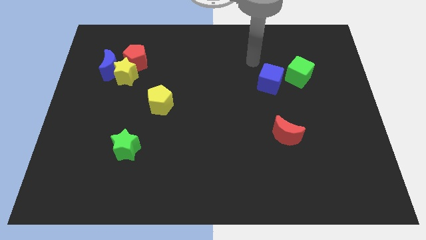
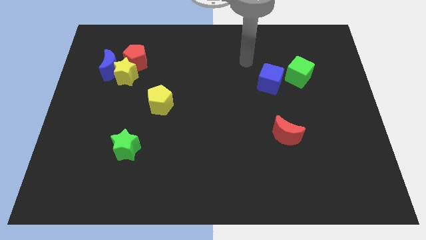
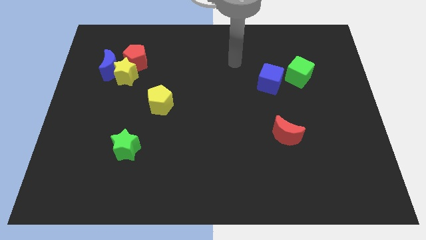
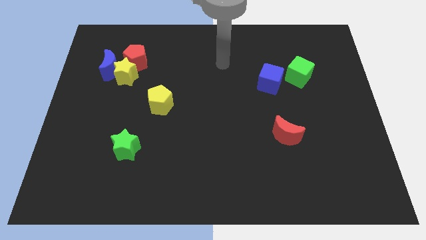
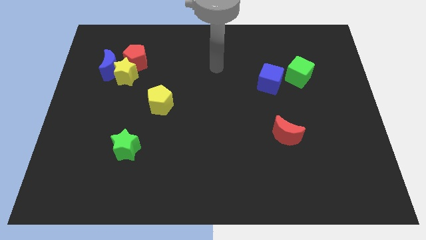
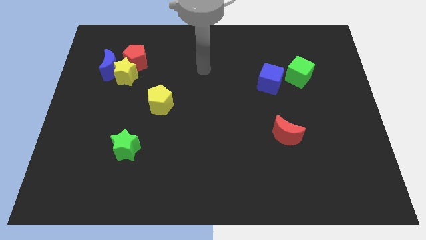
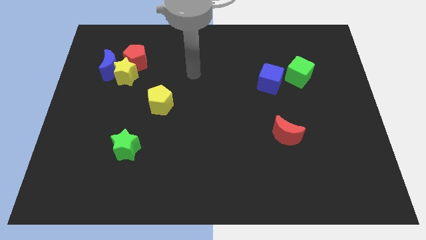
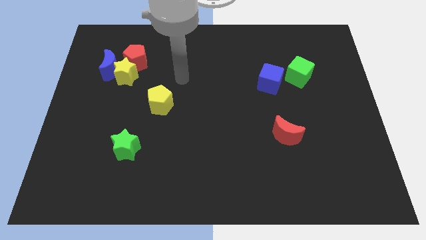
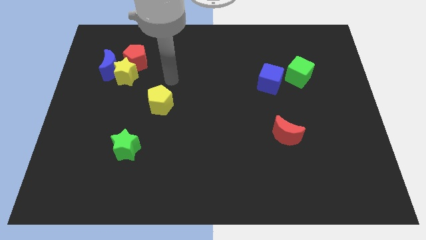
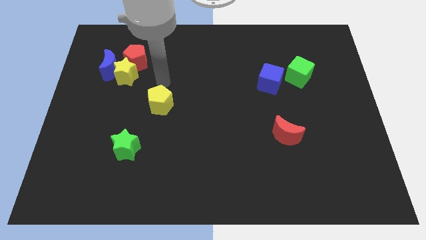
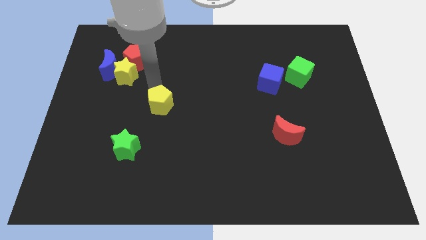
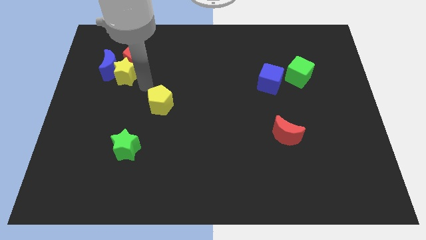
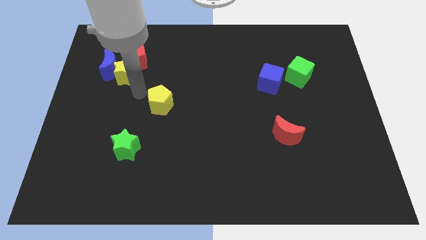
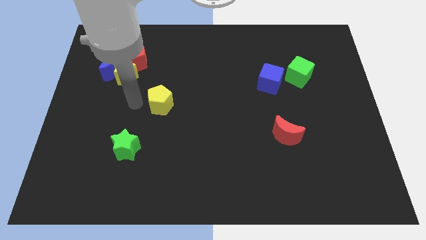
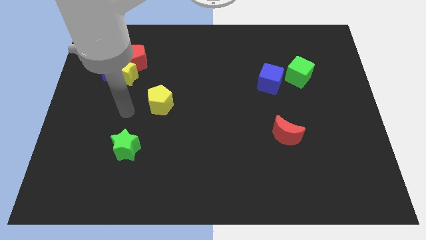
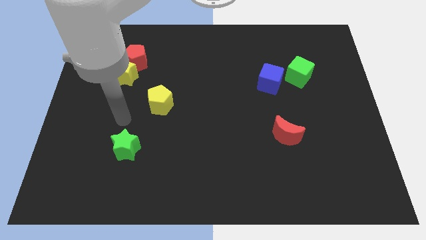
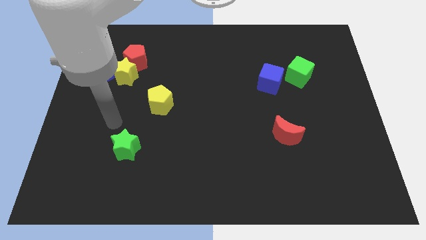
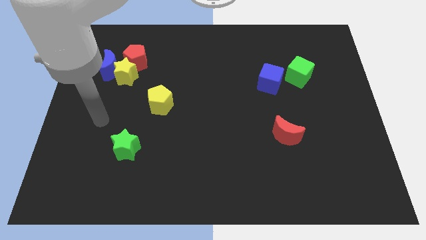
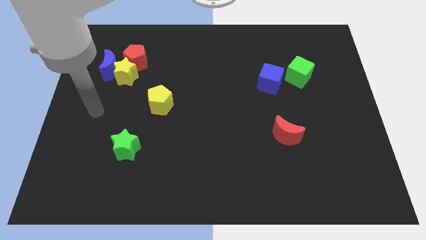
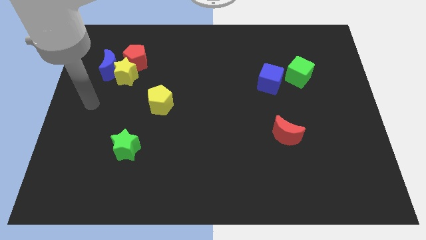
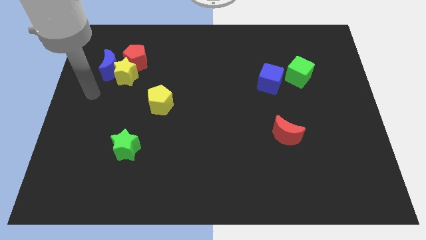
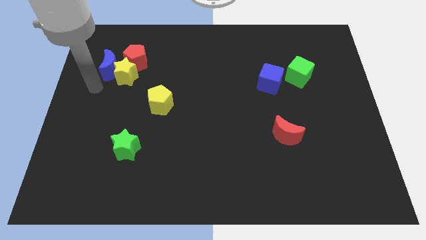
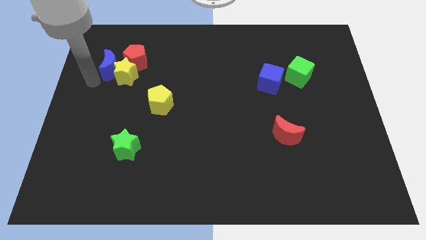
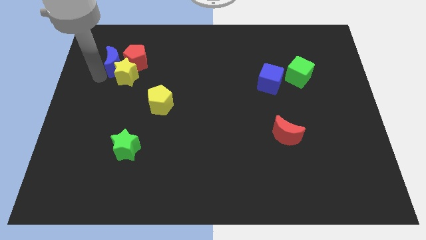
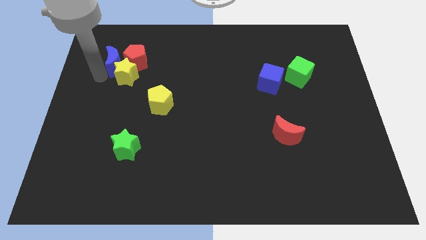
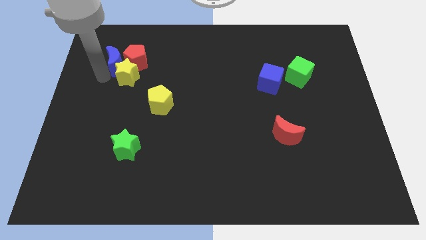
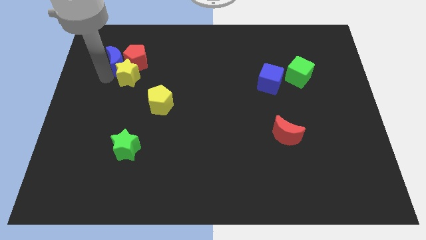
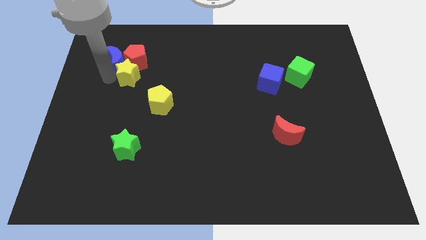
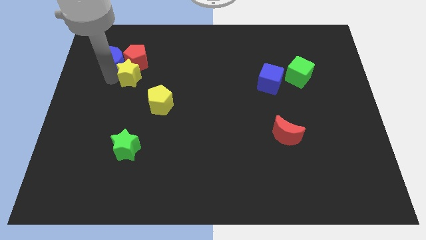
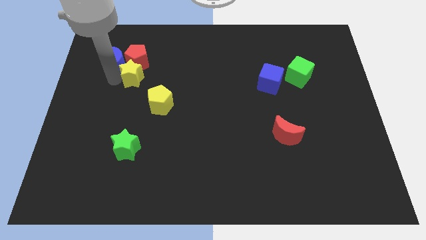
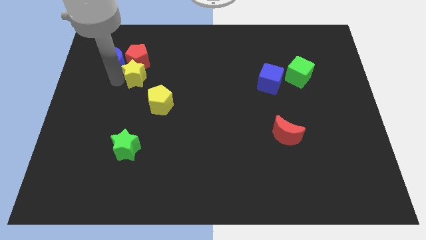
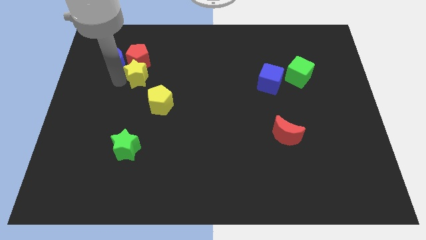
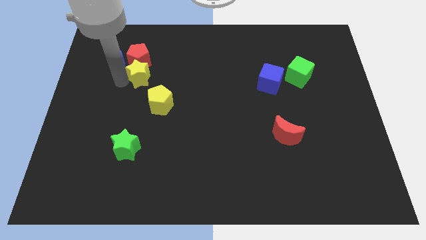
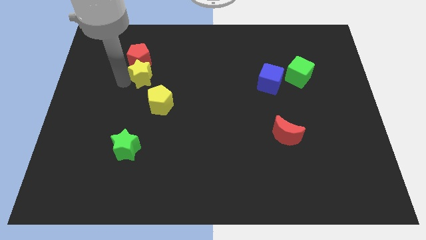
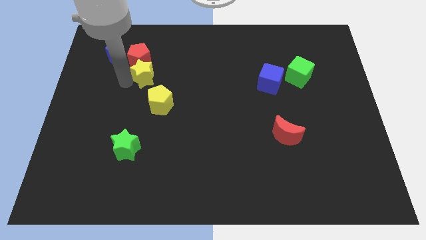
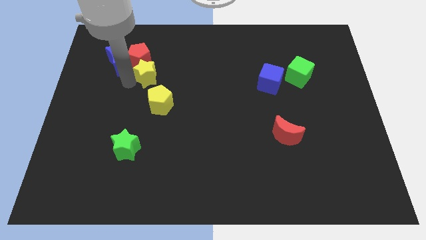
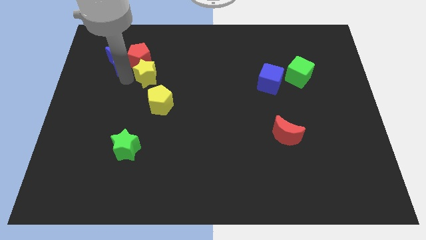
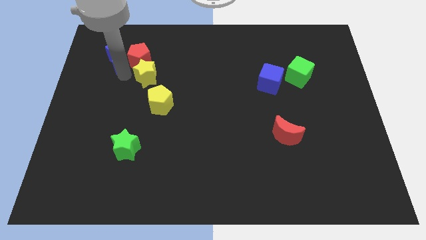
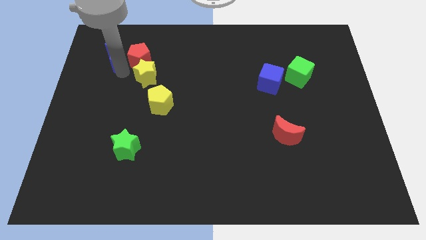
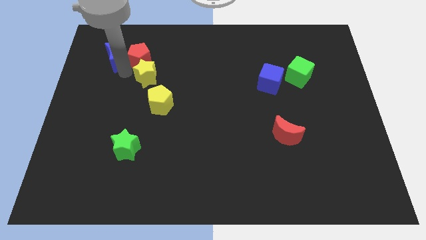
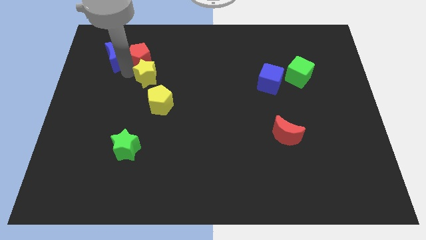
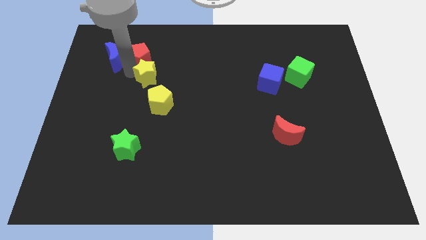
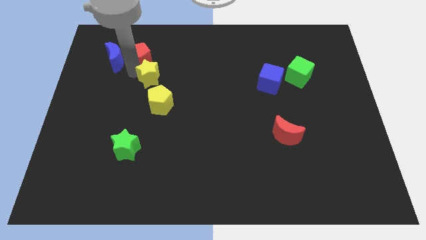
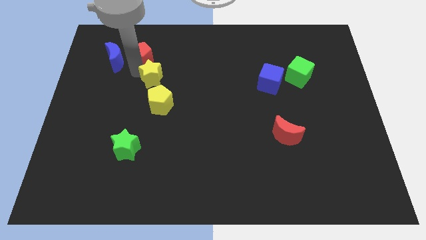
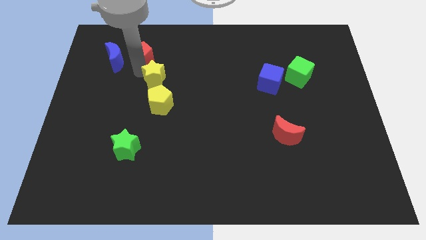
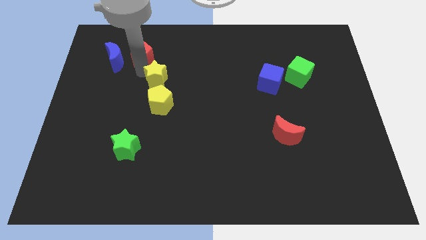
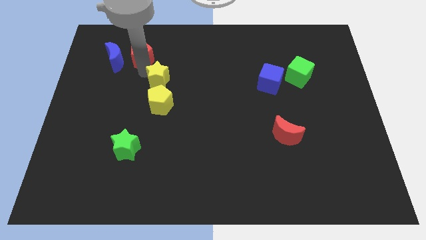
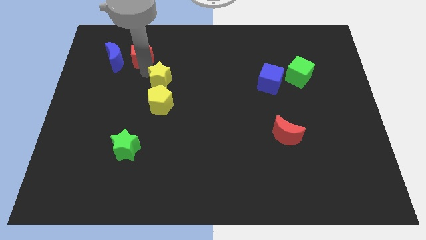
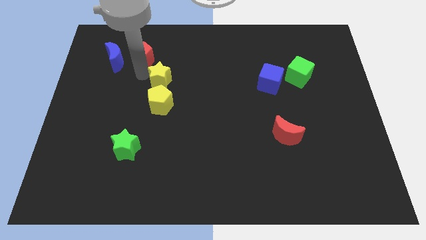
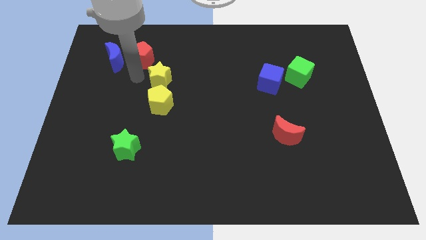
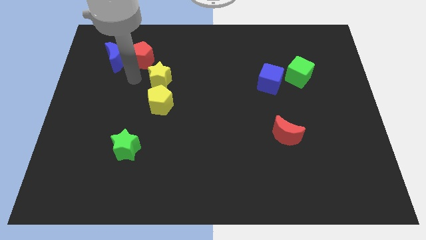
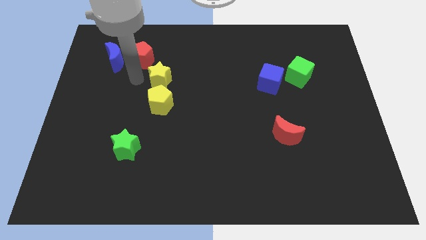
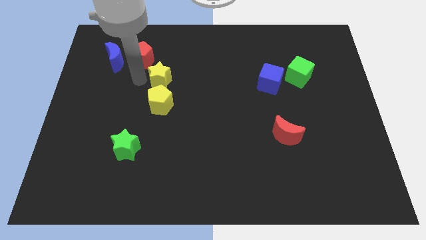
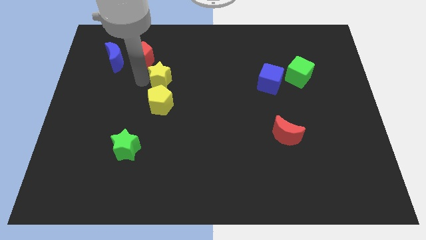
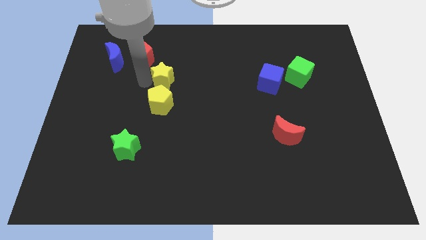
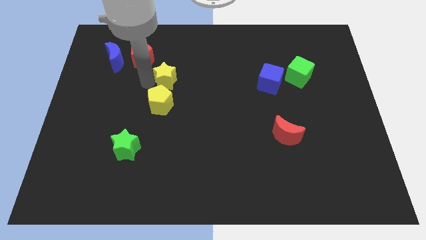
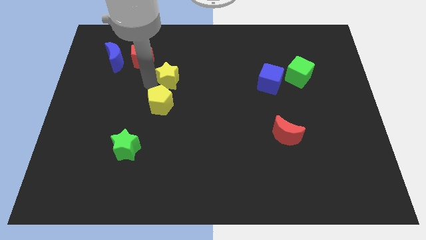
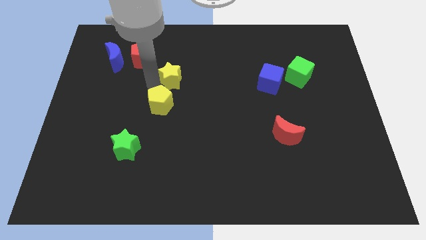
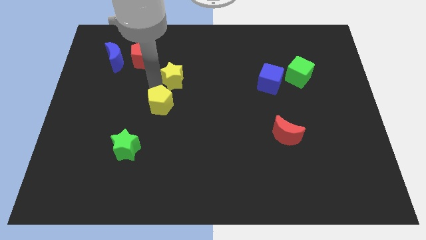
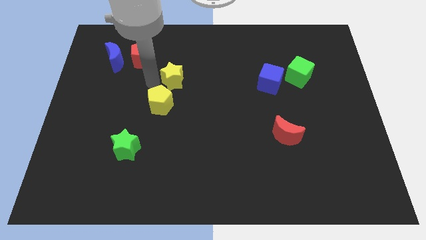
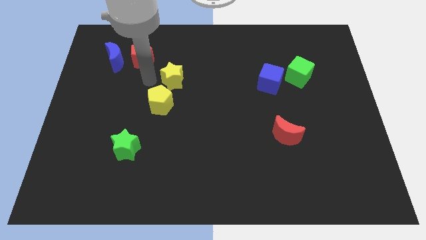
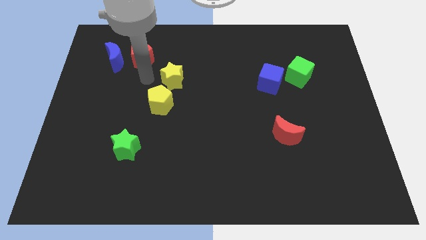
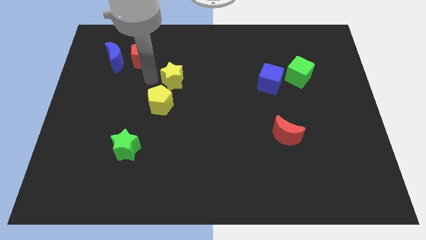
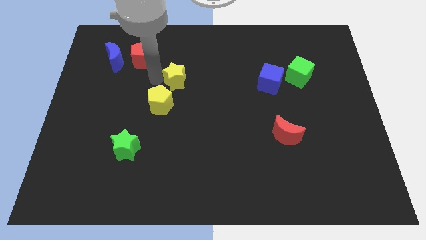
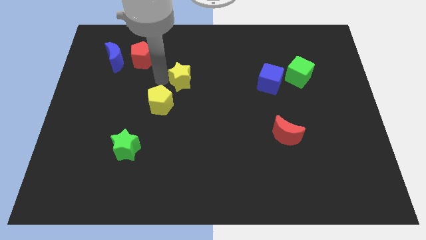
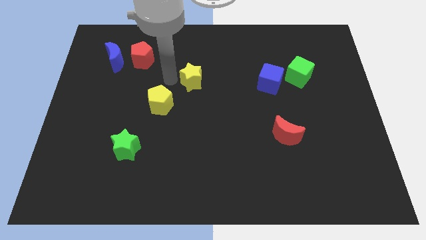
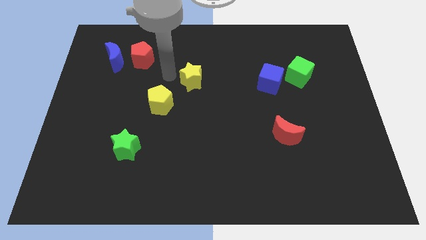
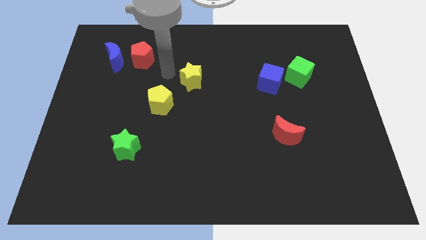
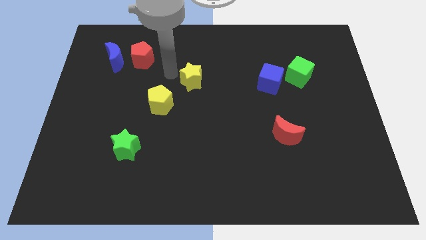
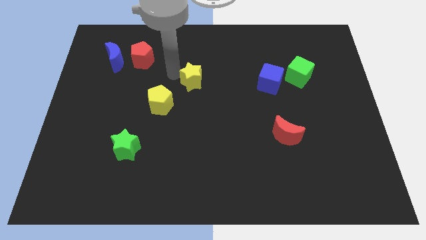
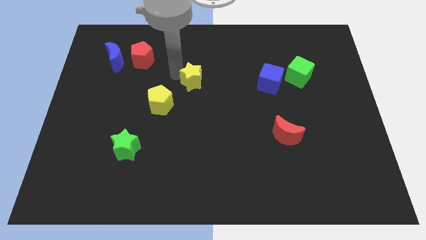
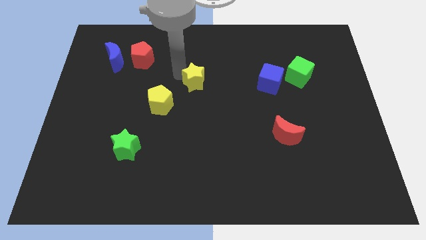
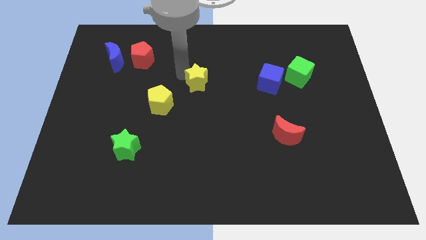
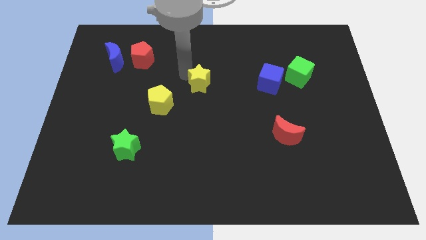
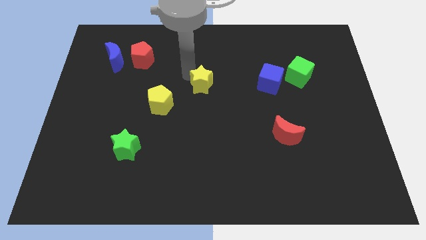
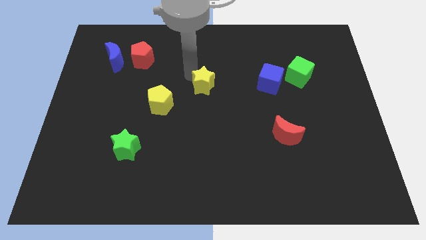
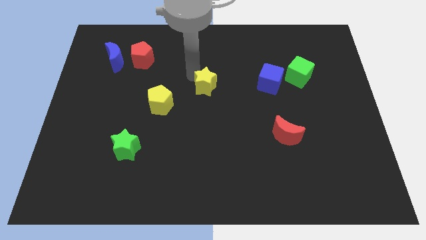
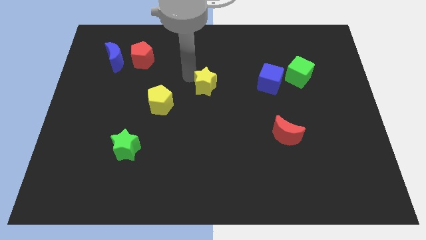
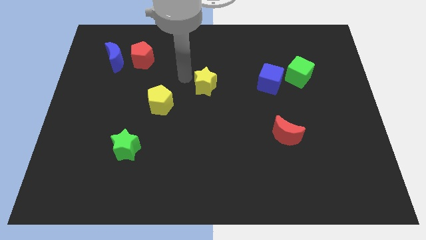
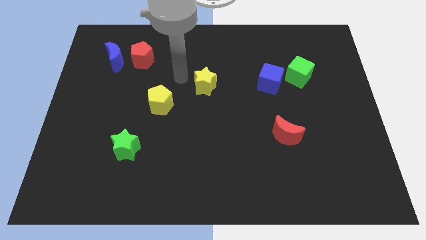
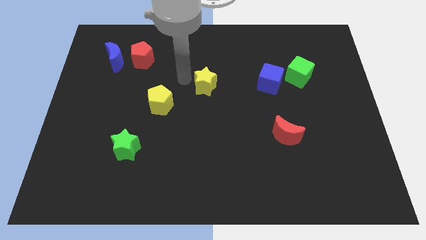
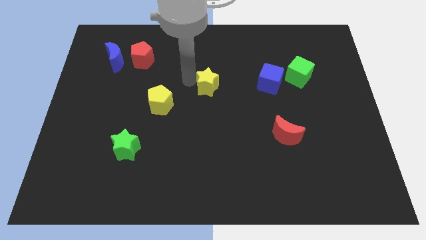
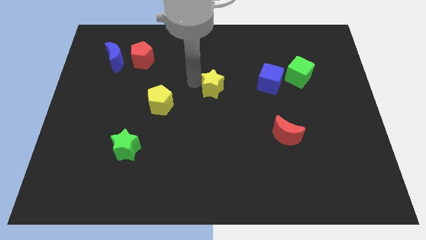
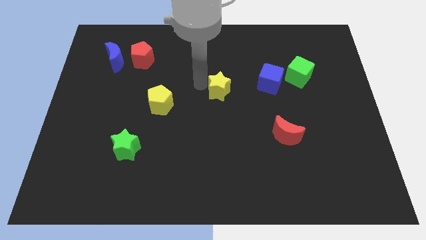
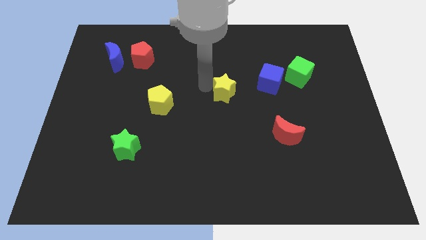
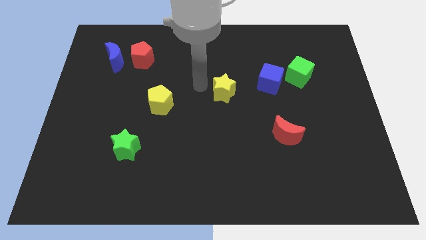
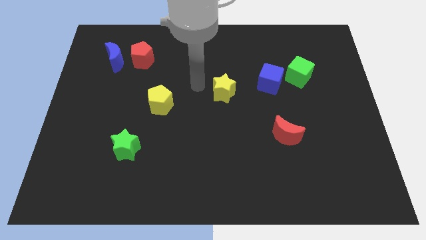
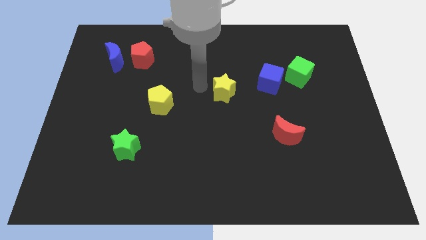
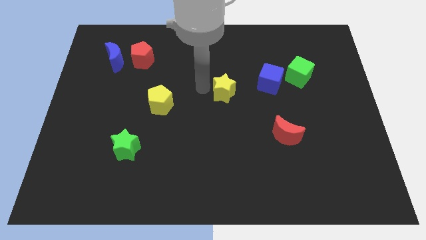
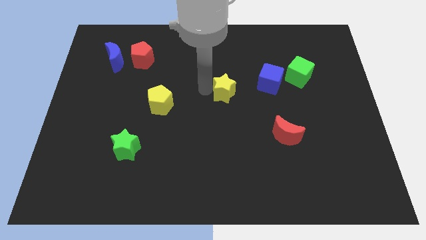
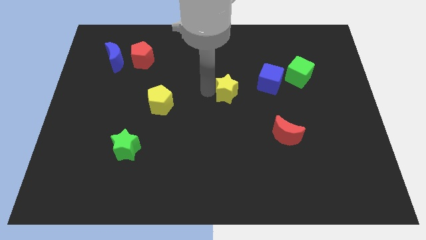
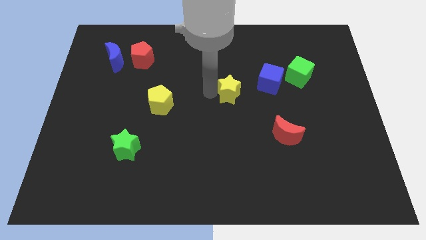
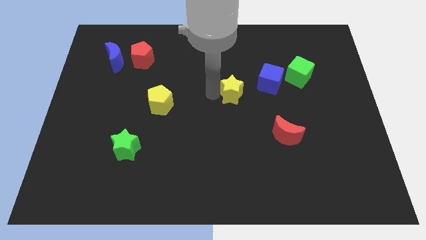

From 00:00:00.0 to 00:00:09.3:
slide the yellow star to the bottom left of the blue cube
